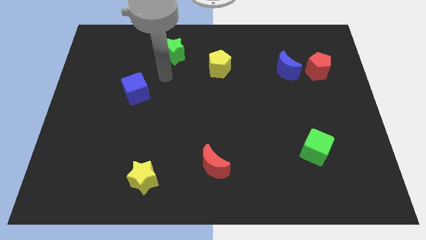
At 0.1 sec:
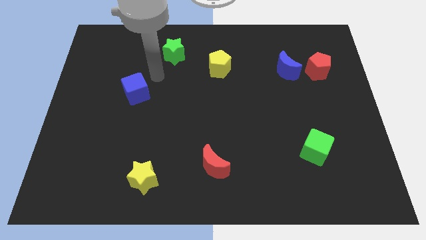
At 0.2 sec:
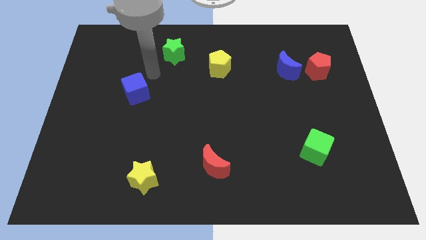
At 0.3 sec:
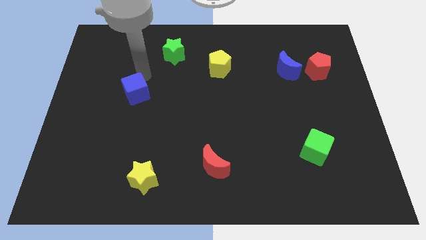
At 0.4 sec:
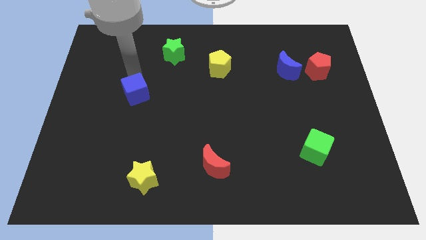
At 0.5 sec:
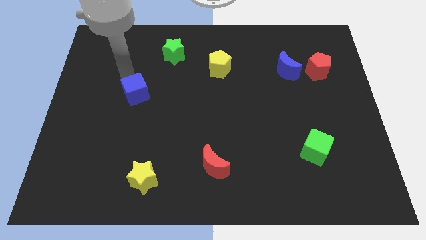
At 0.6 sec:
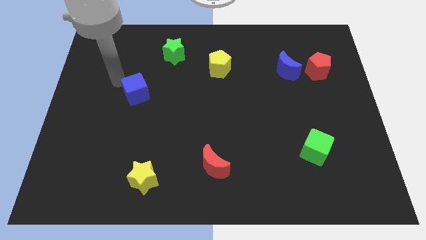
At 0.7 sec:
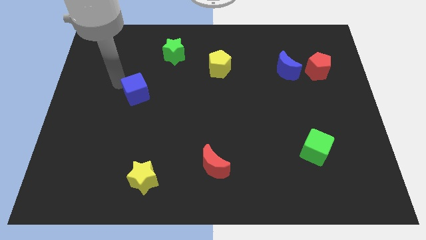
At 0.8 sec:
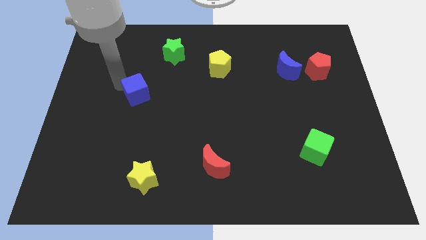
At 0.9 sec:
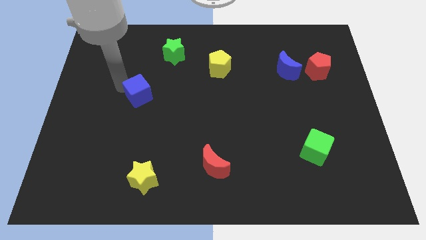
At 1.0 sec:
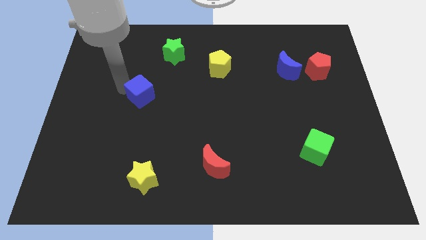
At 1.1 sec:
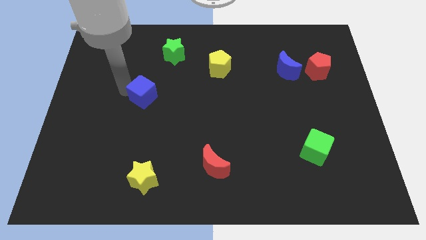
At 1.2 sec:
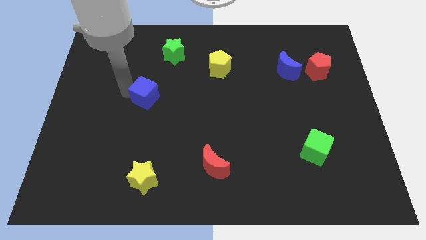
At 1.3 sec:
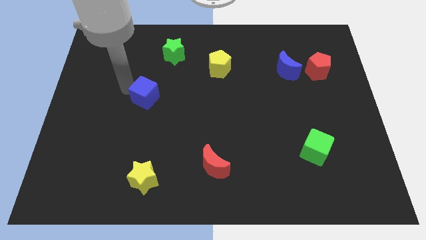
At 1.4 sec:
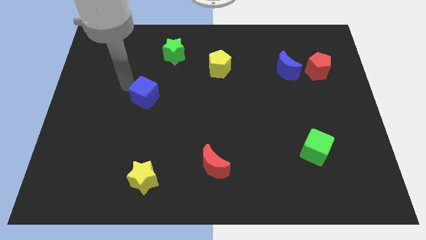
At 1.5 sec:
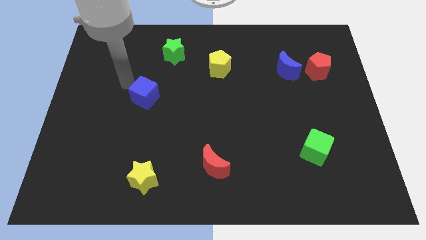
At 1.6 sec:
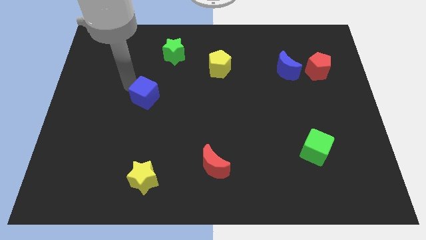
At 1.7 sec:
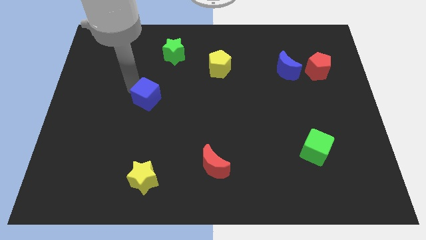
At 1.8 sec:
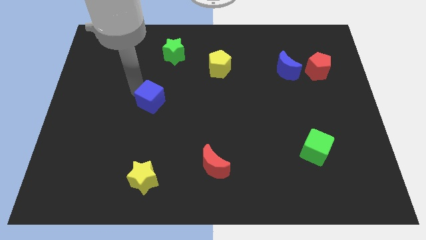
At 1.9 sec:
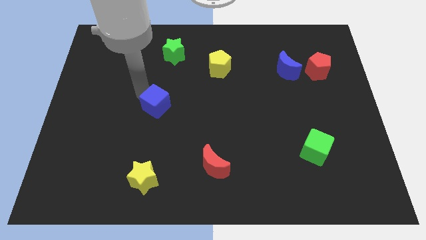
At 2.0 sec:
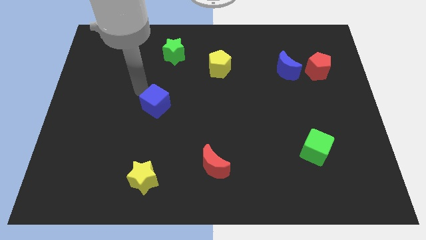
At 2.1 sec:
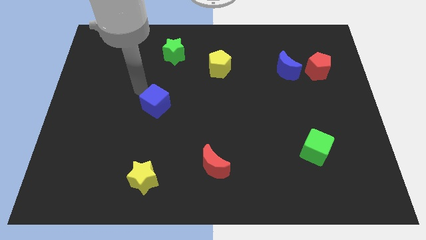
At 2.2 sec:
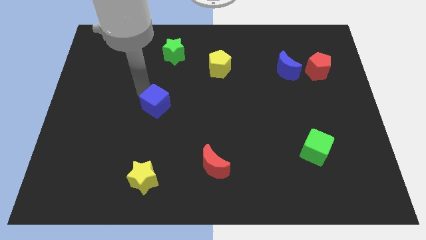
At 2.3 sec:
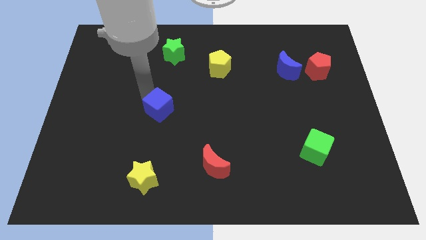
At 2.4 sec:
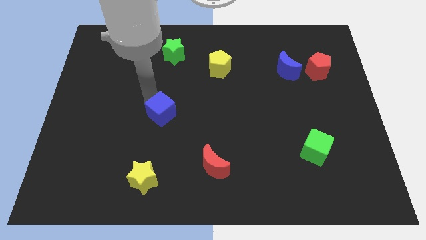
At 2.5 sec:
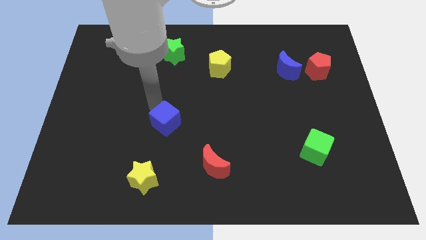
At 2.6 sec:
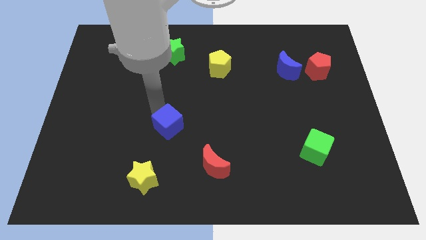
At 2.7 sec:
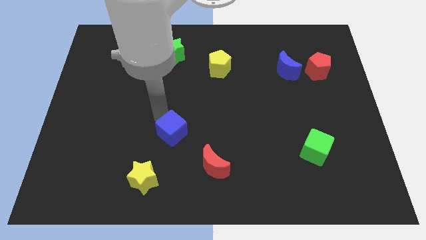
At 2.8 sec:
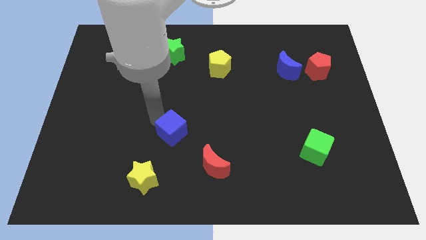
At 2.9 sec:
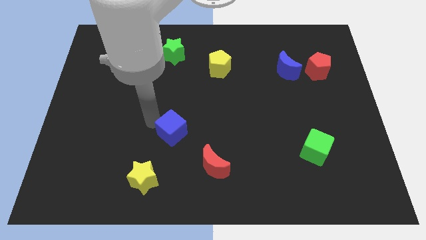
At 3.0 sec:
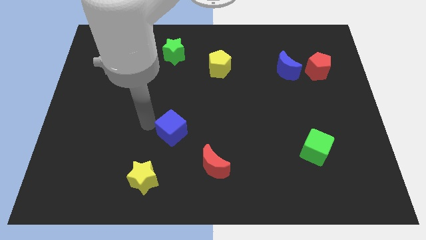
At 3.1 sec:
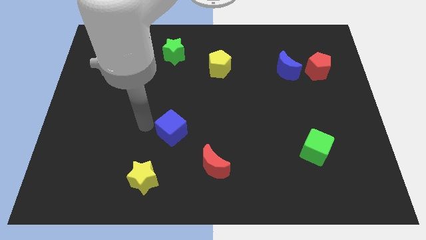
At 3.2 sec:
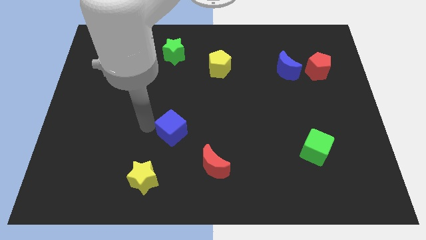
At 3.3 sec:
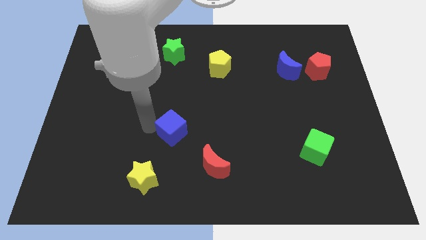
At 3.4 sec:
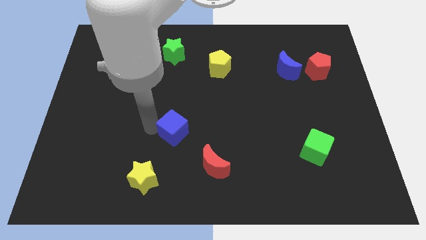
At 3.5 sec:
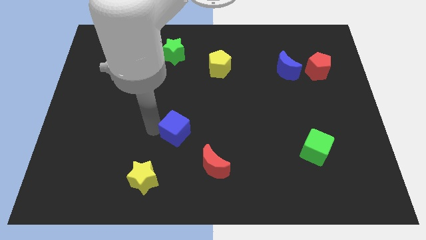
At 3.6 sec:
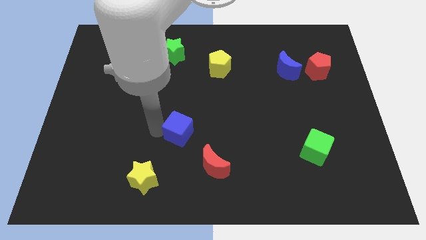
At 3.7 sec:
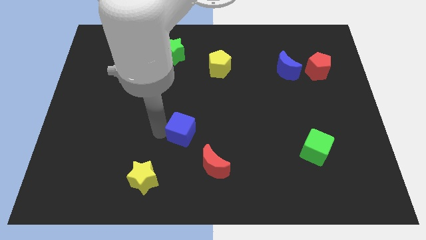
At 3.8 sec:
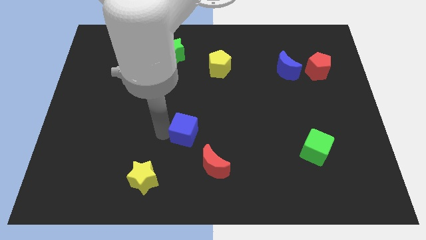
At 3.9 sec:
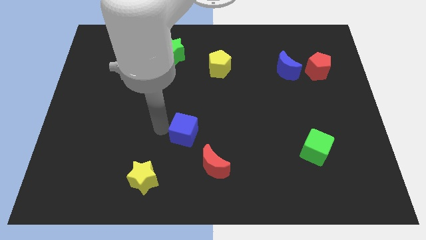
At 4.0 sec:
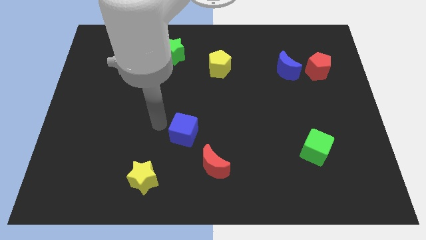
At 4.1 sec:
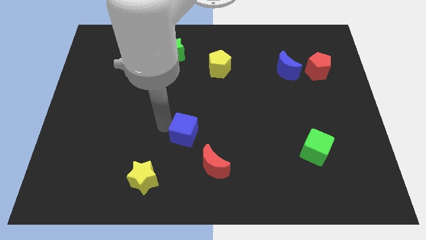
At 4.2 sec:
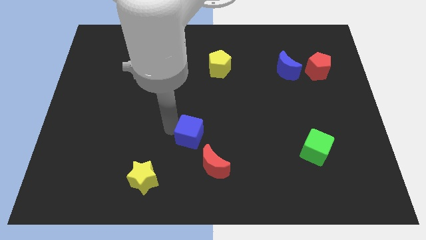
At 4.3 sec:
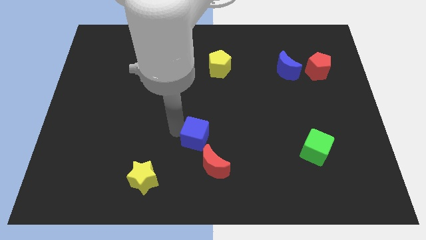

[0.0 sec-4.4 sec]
move the blue cube down and to the right

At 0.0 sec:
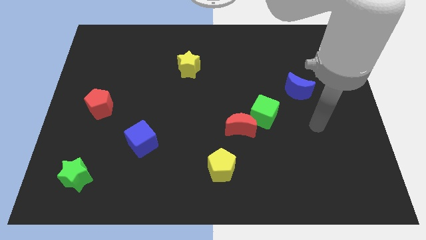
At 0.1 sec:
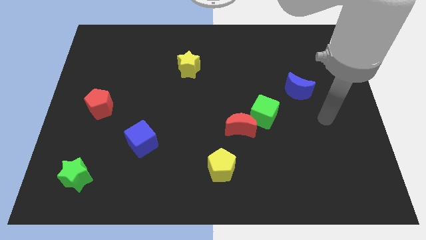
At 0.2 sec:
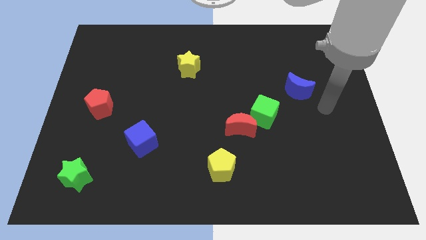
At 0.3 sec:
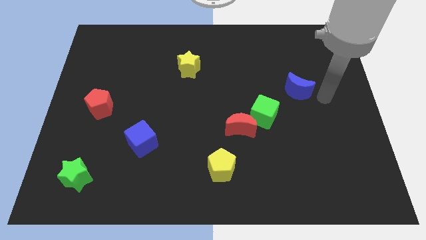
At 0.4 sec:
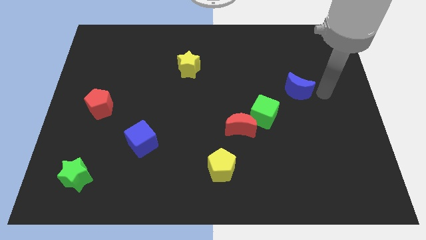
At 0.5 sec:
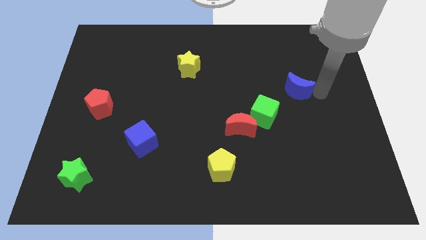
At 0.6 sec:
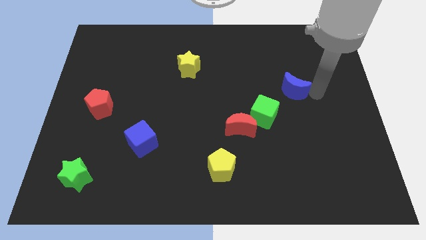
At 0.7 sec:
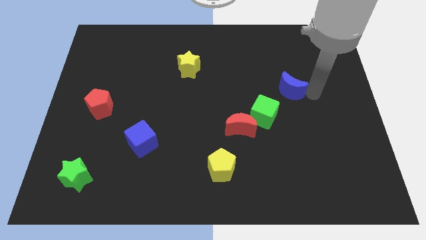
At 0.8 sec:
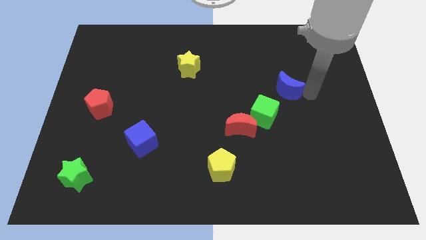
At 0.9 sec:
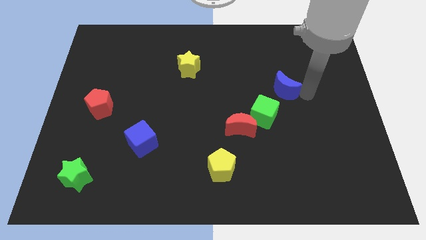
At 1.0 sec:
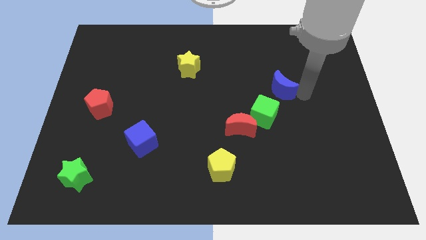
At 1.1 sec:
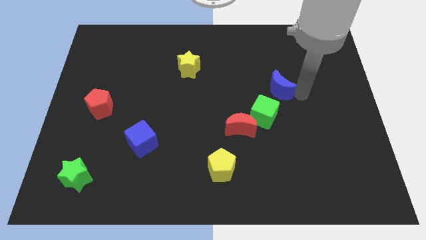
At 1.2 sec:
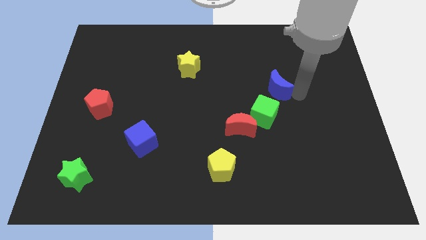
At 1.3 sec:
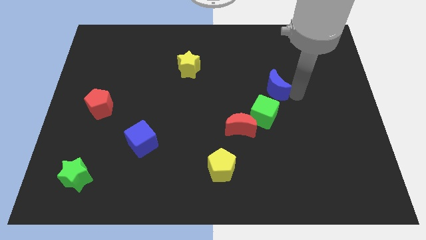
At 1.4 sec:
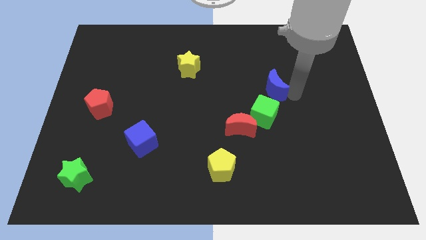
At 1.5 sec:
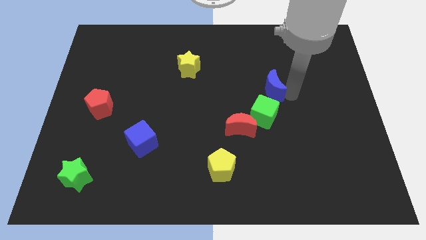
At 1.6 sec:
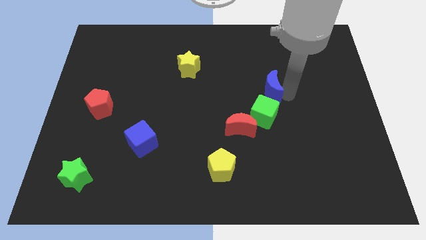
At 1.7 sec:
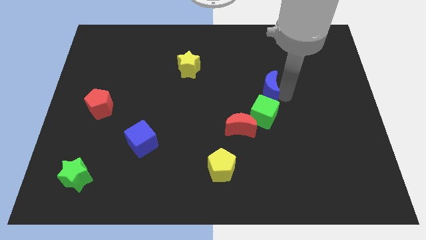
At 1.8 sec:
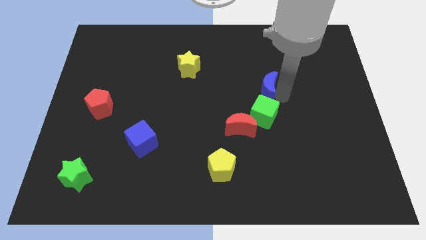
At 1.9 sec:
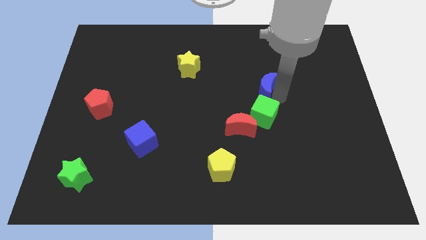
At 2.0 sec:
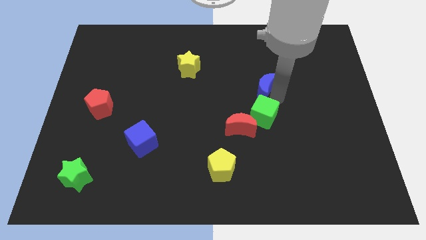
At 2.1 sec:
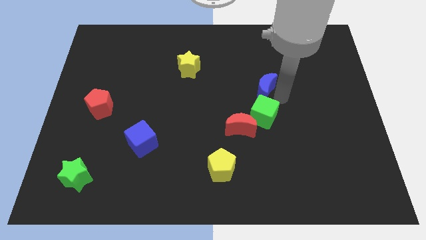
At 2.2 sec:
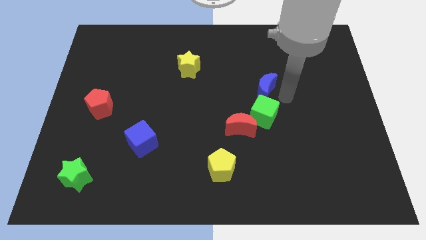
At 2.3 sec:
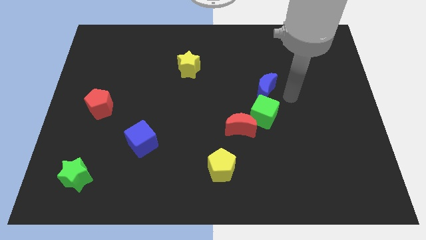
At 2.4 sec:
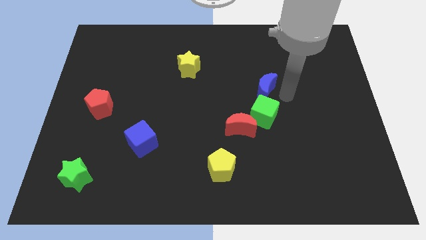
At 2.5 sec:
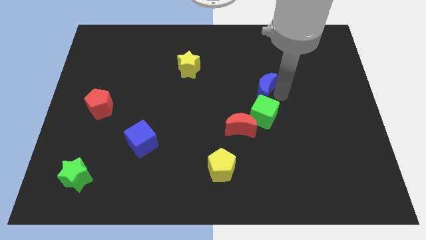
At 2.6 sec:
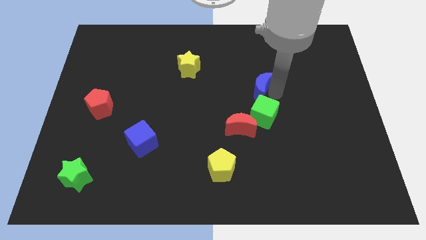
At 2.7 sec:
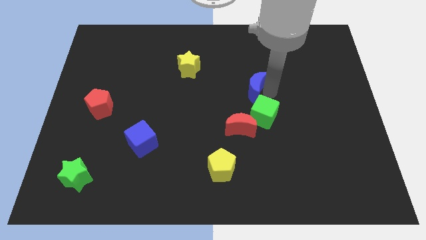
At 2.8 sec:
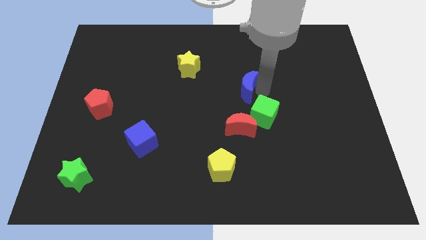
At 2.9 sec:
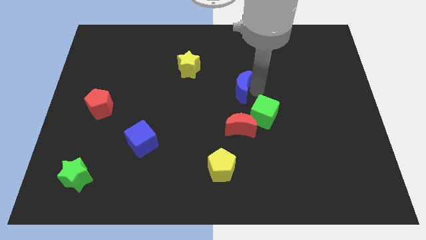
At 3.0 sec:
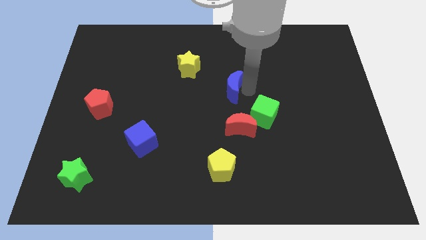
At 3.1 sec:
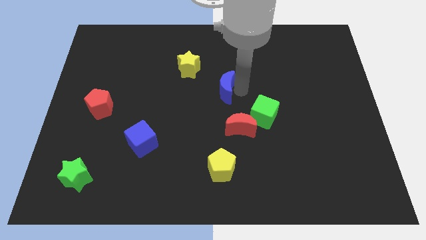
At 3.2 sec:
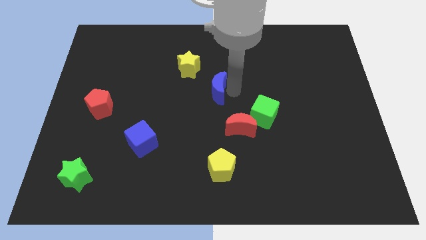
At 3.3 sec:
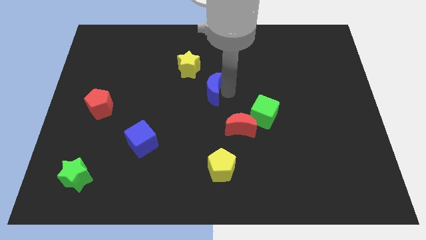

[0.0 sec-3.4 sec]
move the blue moon to the left

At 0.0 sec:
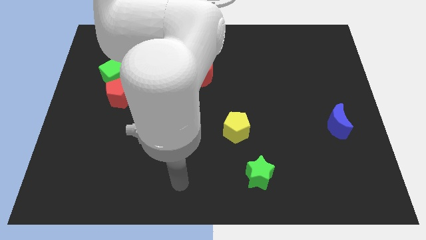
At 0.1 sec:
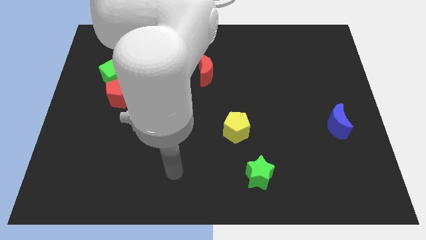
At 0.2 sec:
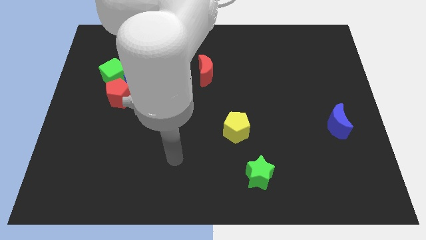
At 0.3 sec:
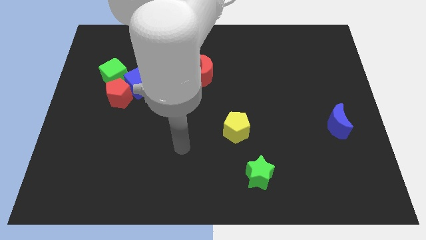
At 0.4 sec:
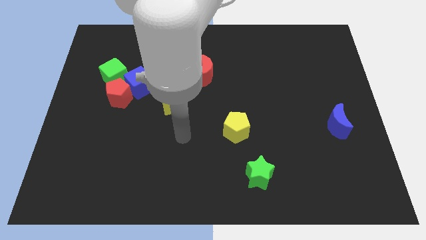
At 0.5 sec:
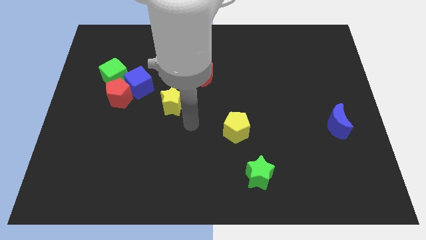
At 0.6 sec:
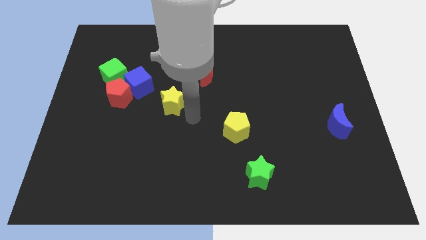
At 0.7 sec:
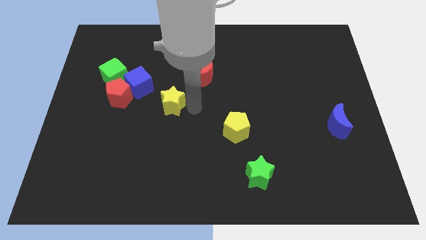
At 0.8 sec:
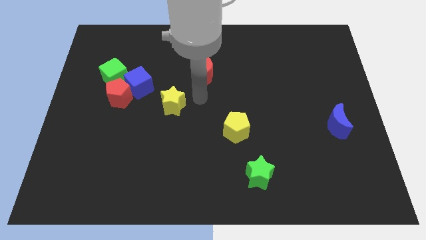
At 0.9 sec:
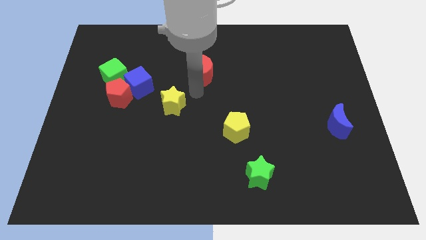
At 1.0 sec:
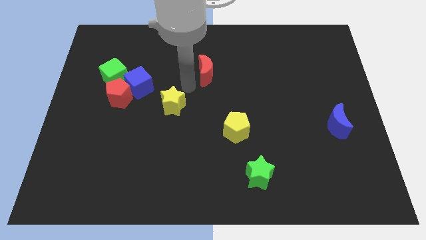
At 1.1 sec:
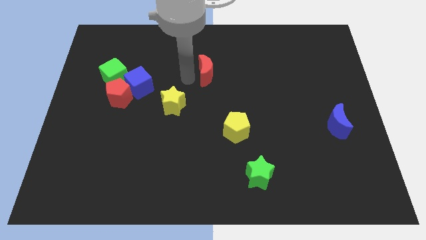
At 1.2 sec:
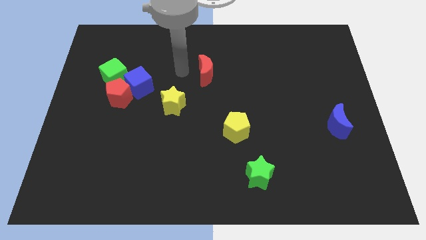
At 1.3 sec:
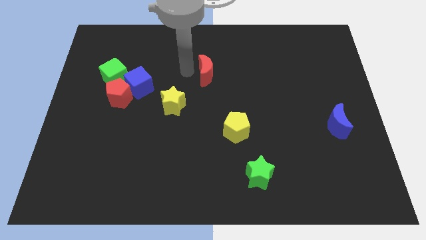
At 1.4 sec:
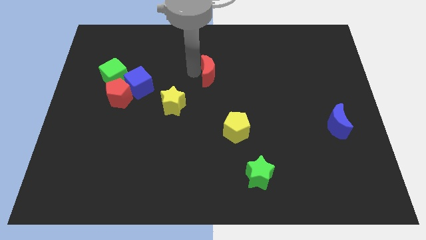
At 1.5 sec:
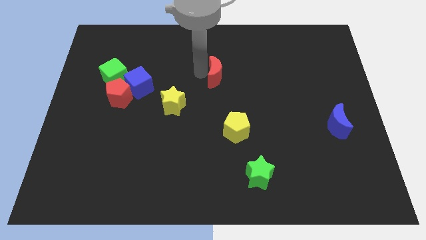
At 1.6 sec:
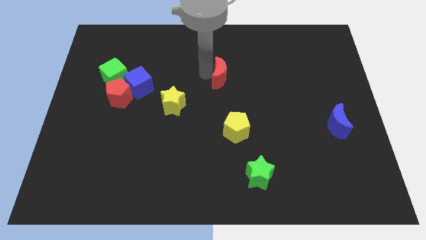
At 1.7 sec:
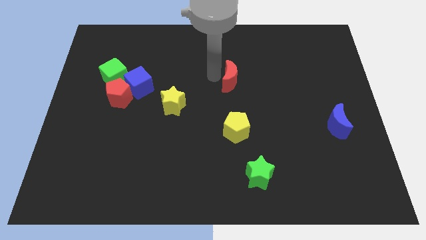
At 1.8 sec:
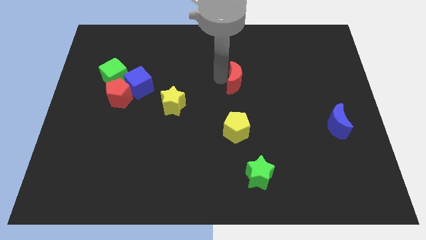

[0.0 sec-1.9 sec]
slide the red moon to the right a little bit
